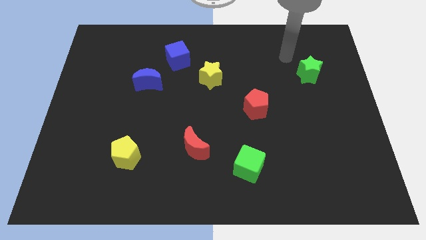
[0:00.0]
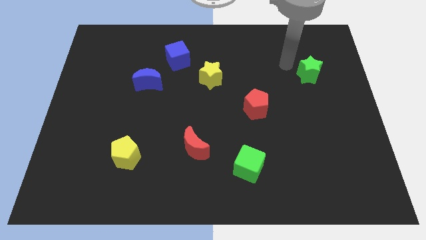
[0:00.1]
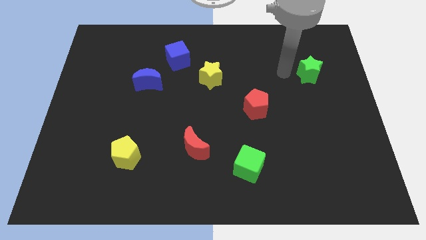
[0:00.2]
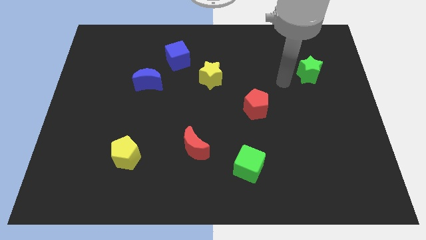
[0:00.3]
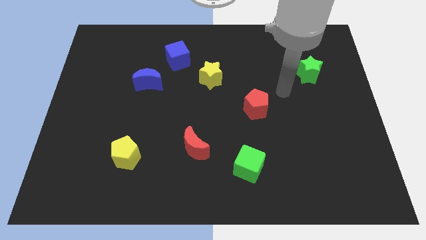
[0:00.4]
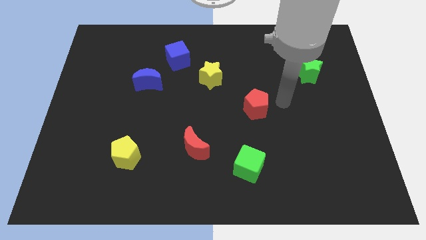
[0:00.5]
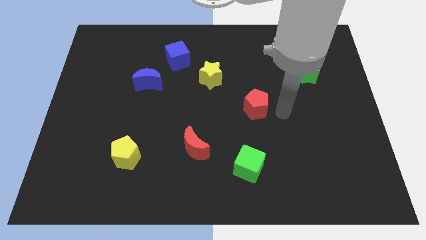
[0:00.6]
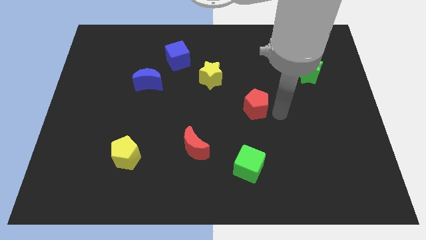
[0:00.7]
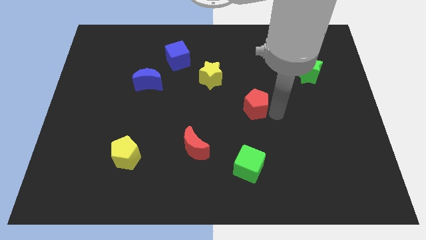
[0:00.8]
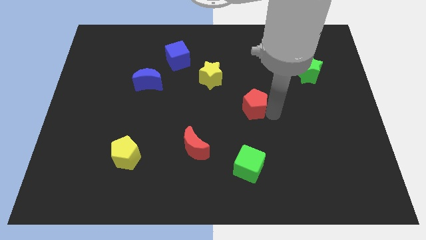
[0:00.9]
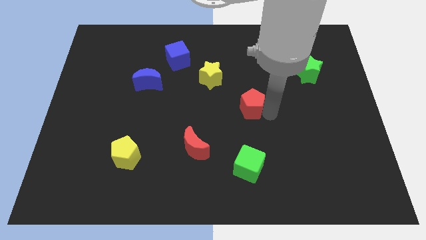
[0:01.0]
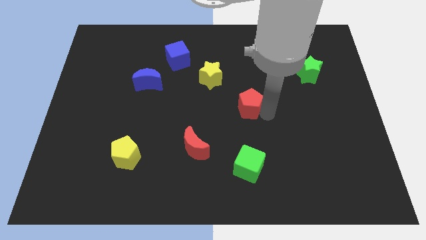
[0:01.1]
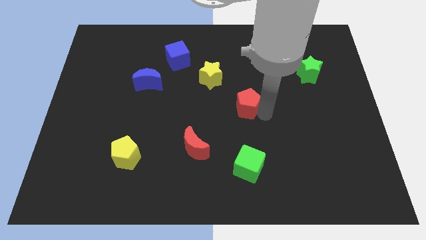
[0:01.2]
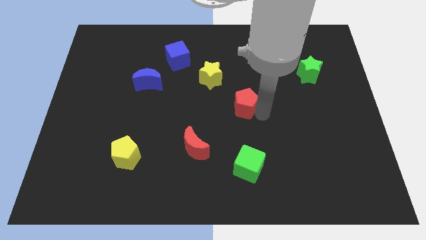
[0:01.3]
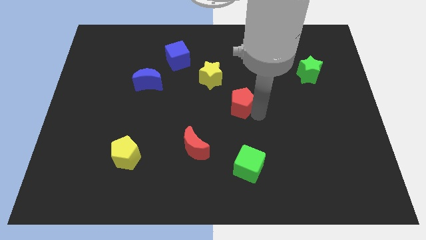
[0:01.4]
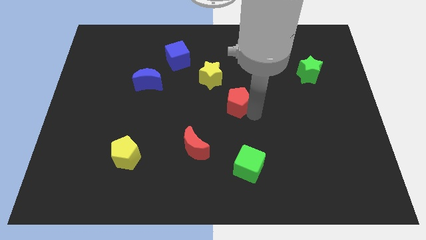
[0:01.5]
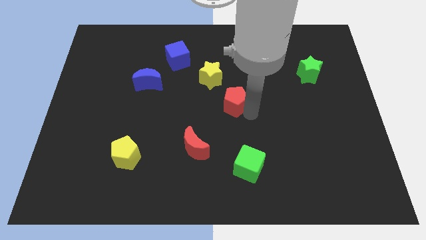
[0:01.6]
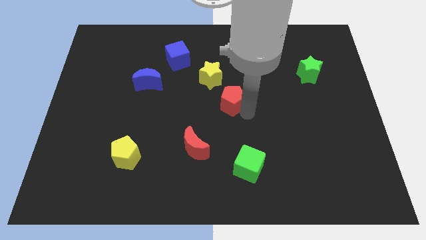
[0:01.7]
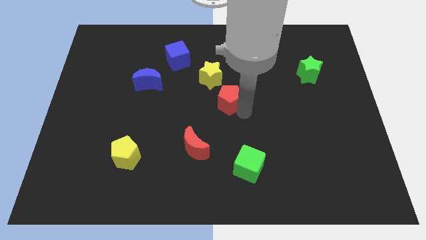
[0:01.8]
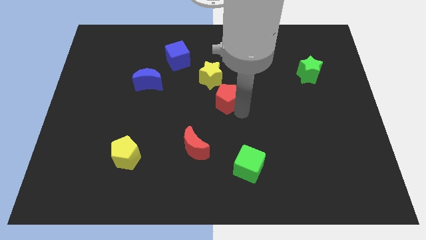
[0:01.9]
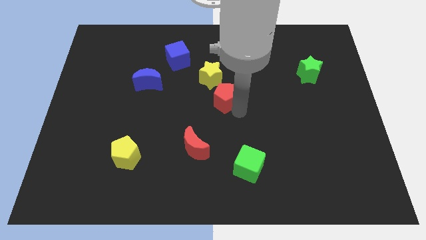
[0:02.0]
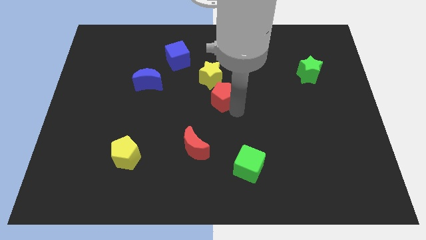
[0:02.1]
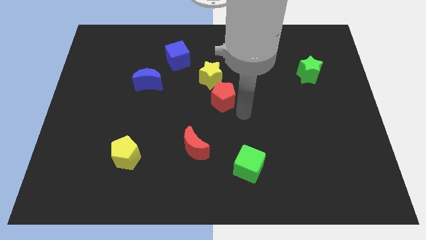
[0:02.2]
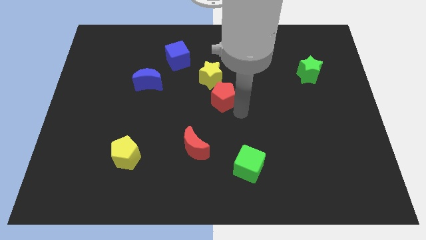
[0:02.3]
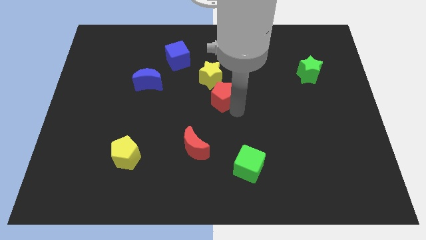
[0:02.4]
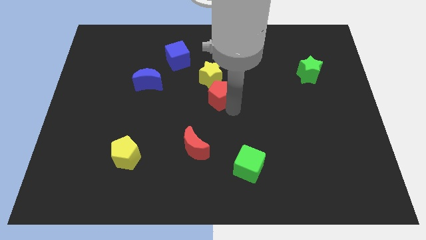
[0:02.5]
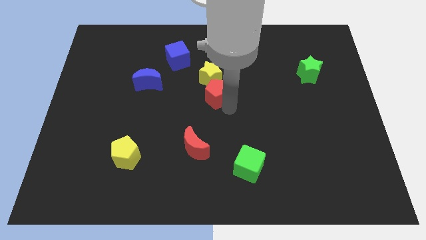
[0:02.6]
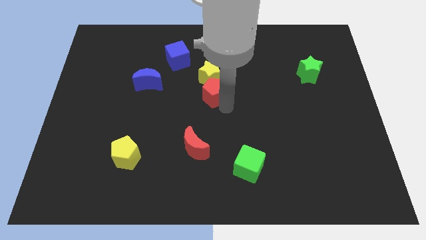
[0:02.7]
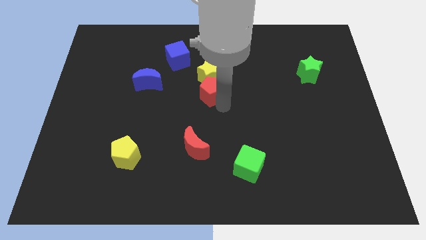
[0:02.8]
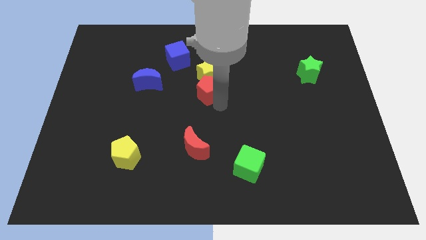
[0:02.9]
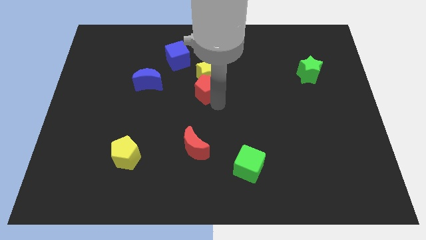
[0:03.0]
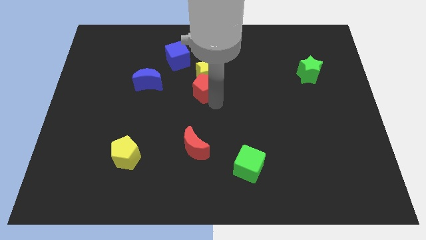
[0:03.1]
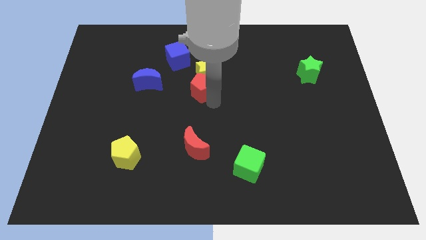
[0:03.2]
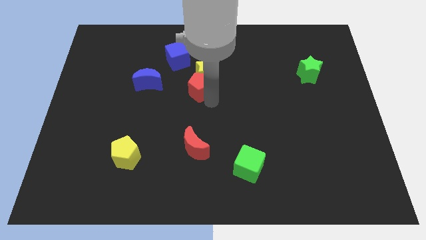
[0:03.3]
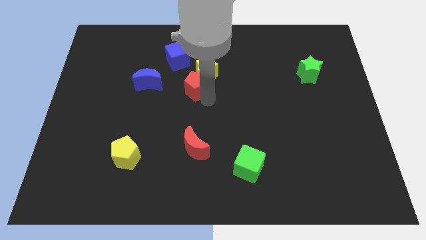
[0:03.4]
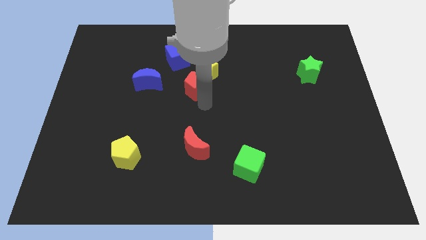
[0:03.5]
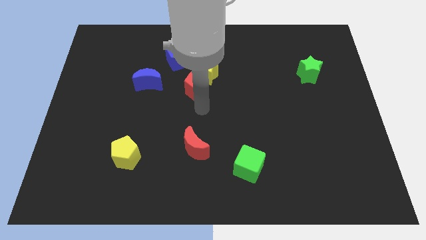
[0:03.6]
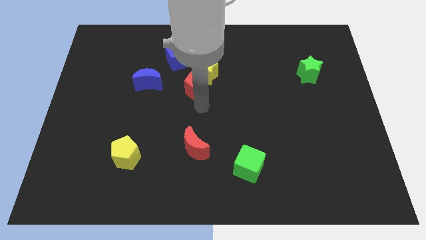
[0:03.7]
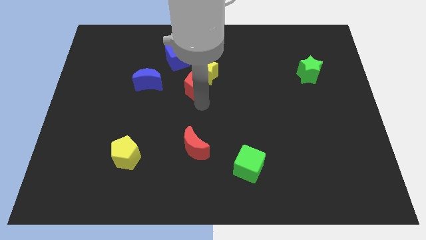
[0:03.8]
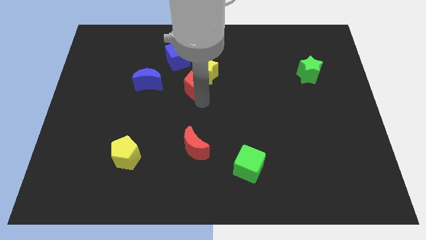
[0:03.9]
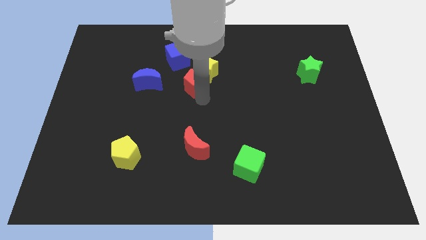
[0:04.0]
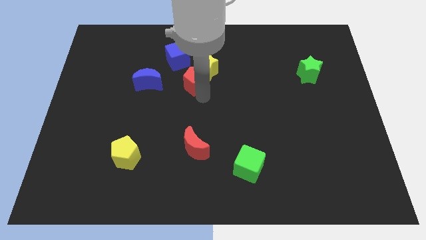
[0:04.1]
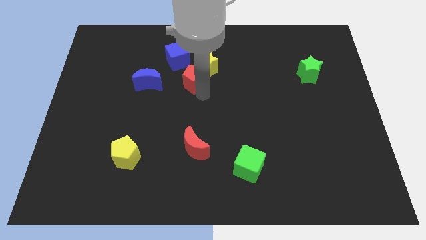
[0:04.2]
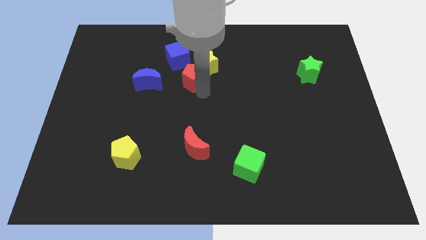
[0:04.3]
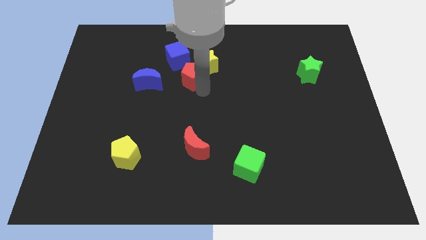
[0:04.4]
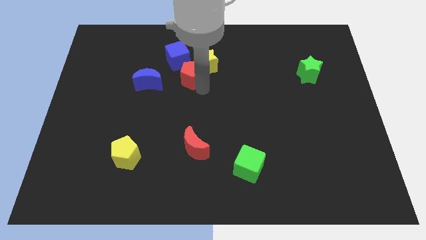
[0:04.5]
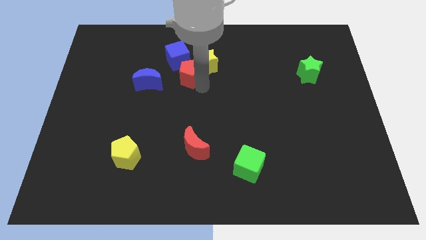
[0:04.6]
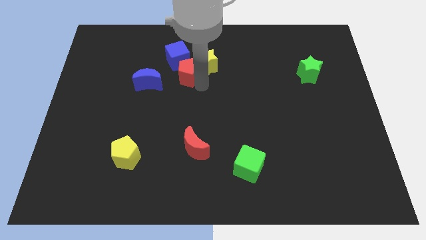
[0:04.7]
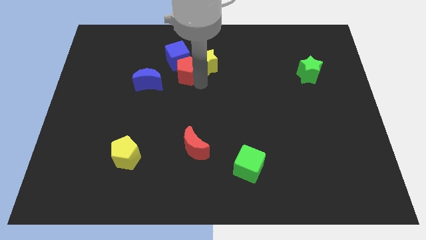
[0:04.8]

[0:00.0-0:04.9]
push the red pentagon close to the blue cube

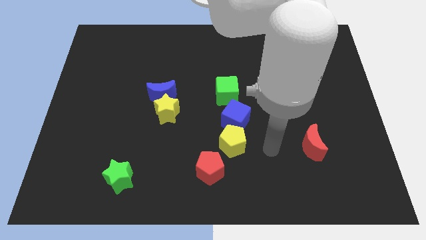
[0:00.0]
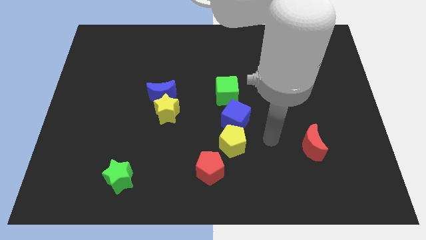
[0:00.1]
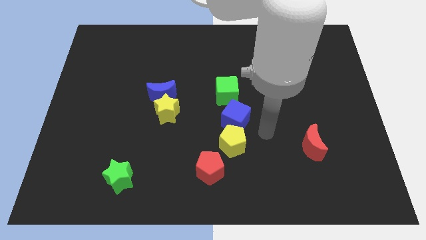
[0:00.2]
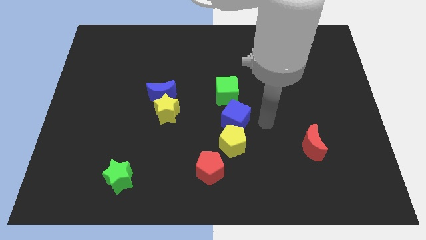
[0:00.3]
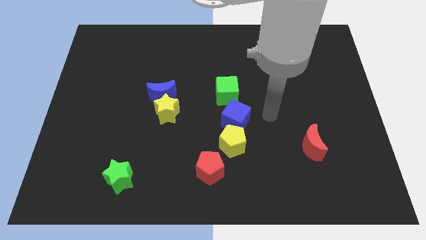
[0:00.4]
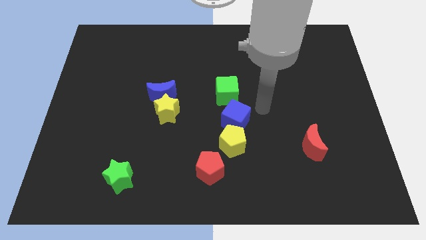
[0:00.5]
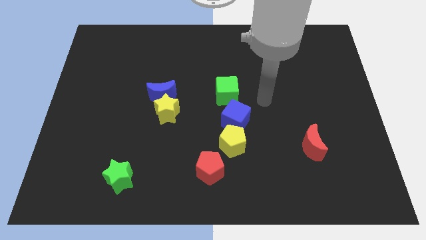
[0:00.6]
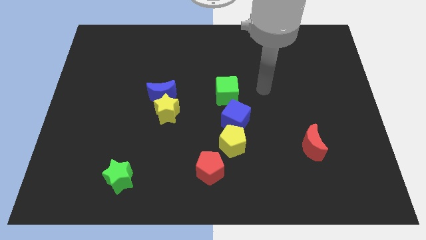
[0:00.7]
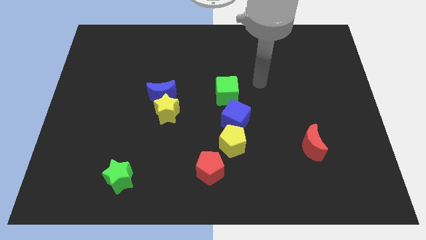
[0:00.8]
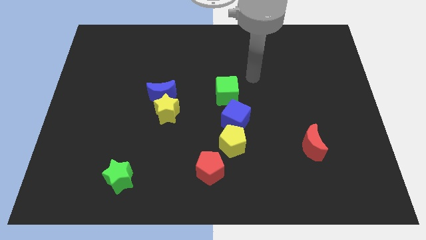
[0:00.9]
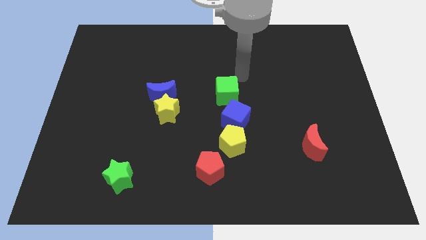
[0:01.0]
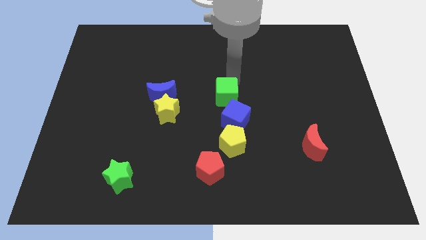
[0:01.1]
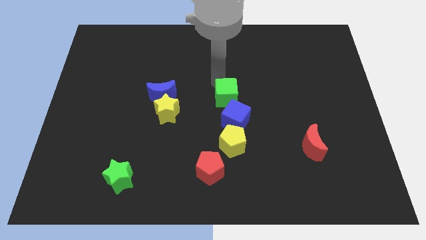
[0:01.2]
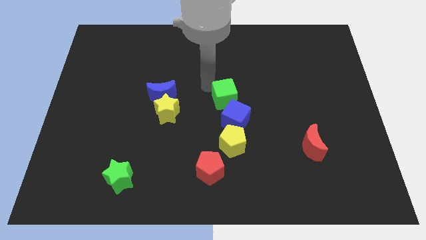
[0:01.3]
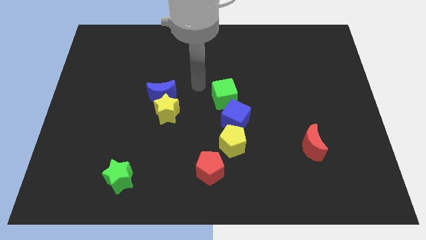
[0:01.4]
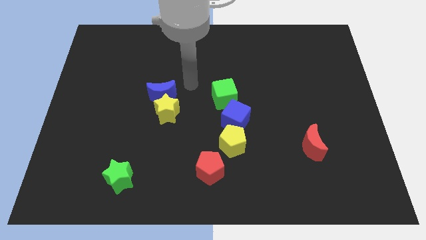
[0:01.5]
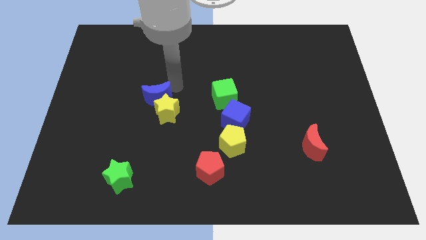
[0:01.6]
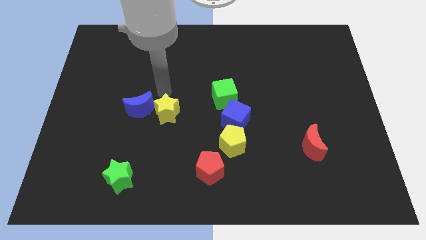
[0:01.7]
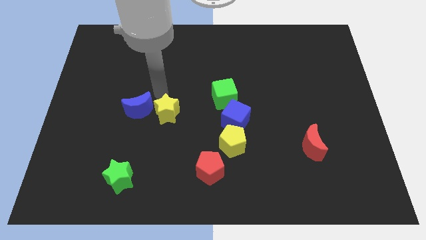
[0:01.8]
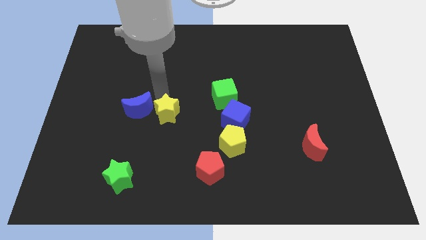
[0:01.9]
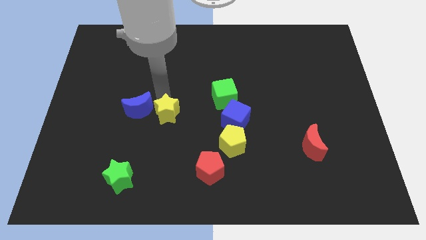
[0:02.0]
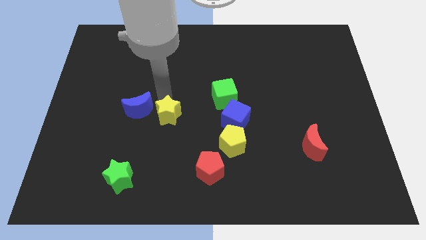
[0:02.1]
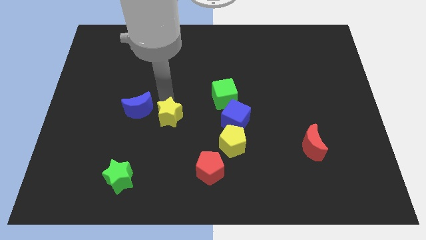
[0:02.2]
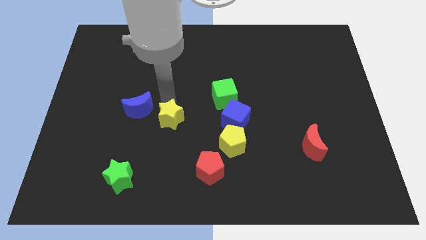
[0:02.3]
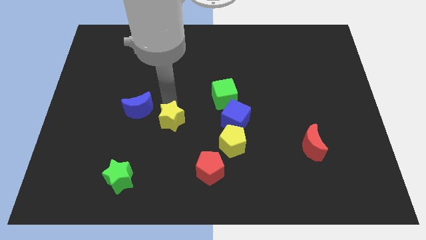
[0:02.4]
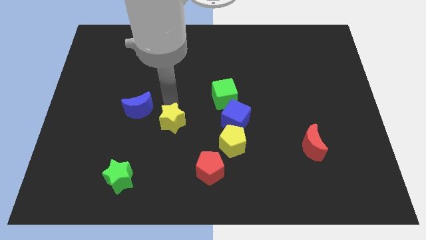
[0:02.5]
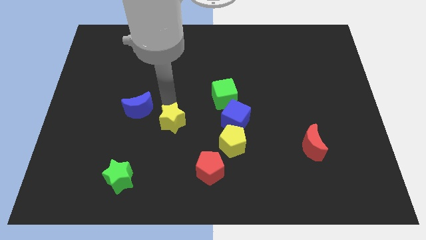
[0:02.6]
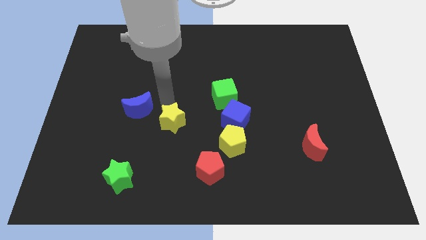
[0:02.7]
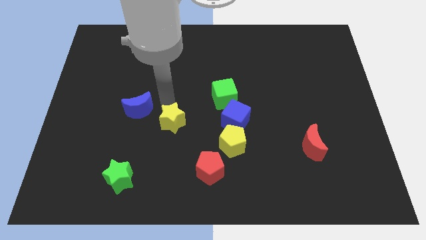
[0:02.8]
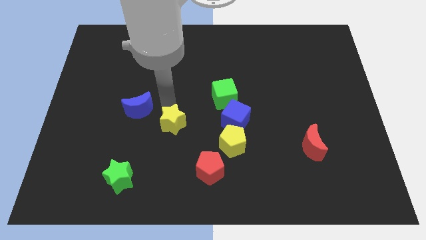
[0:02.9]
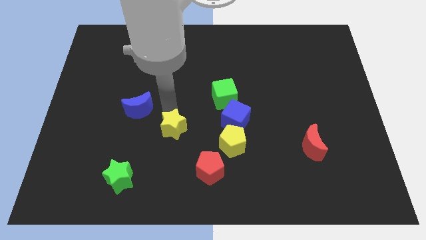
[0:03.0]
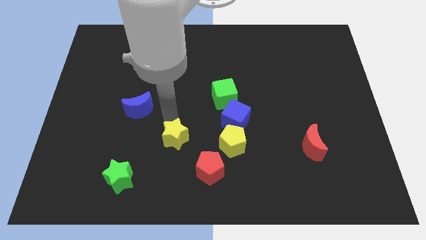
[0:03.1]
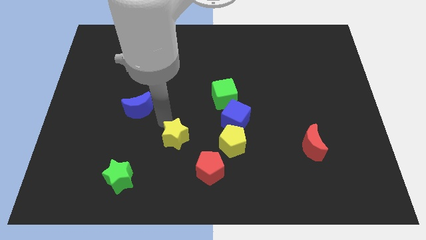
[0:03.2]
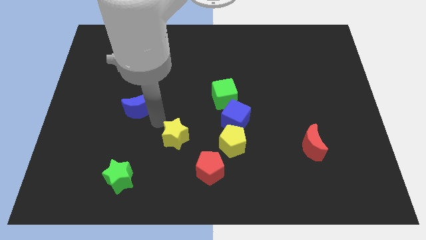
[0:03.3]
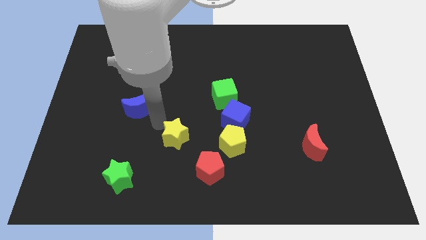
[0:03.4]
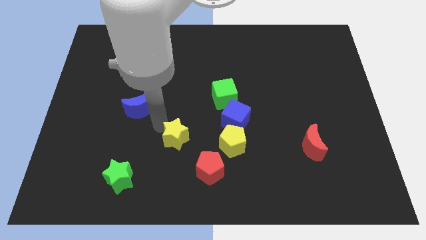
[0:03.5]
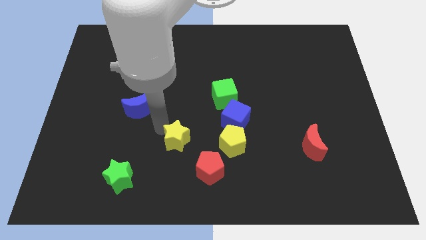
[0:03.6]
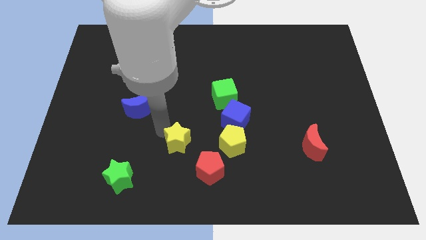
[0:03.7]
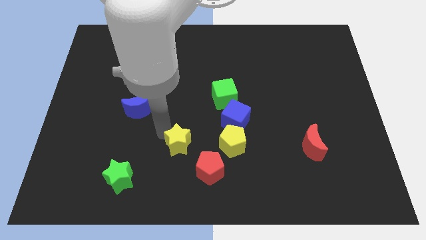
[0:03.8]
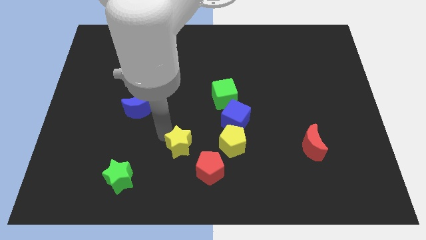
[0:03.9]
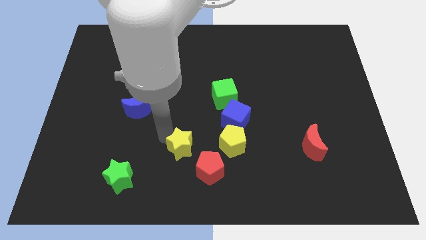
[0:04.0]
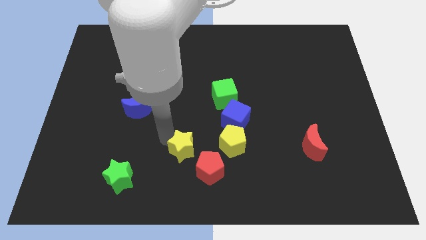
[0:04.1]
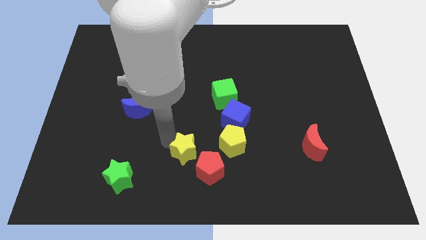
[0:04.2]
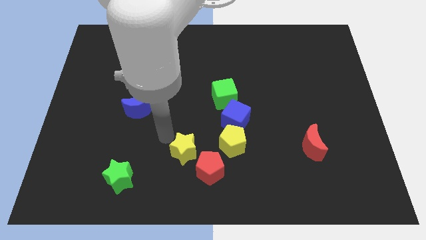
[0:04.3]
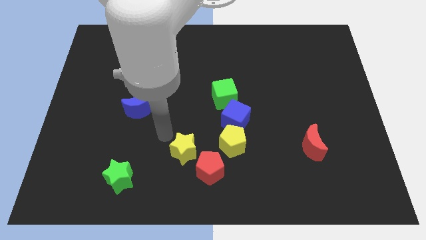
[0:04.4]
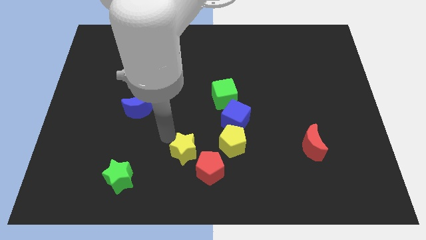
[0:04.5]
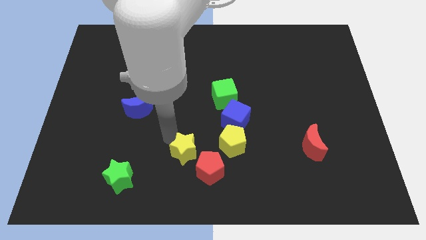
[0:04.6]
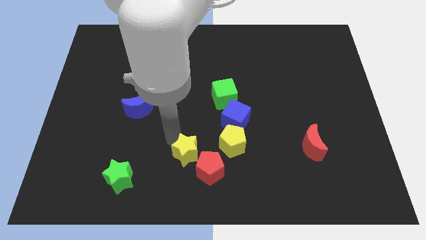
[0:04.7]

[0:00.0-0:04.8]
put the yellow star to the red pentagon
